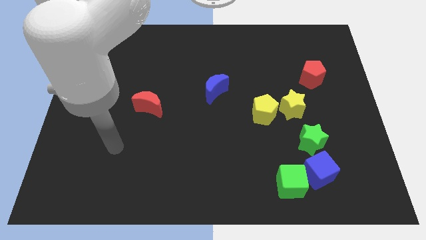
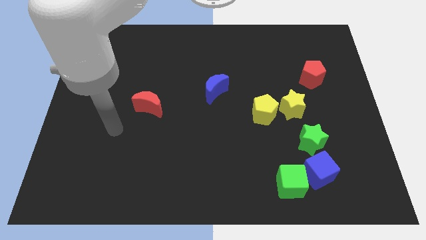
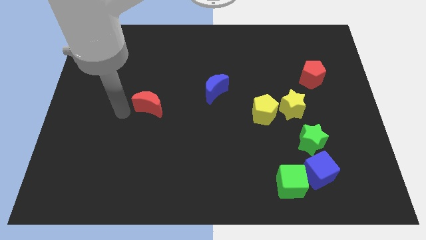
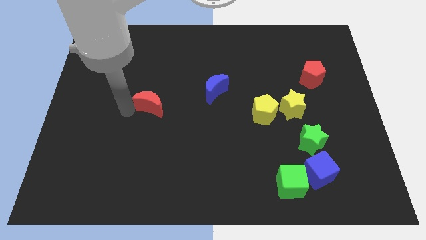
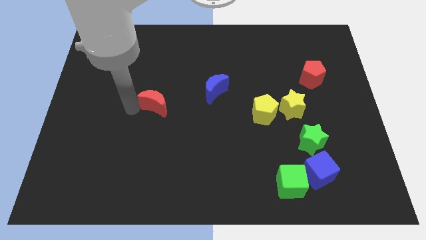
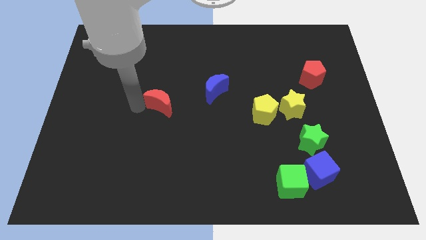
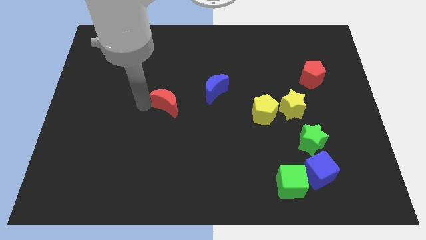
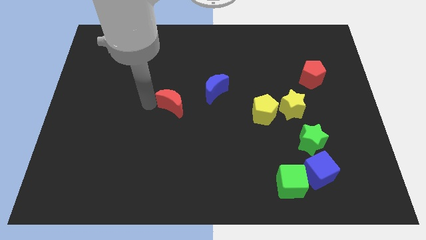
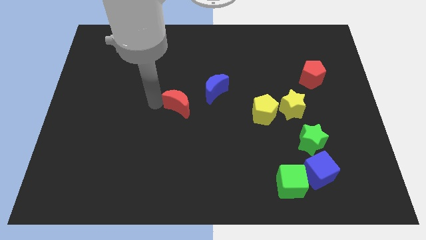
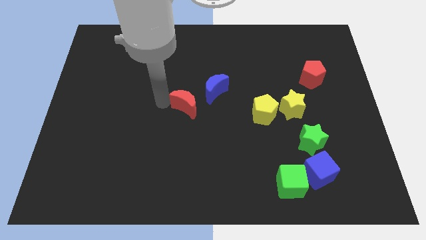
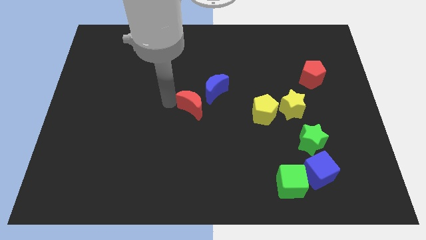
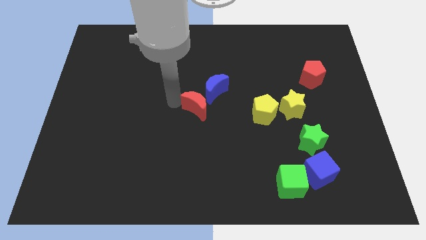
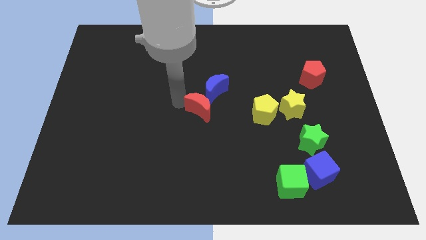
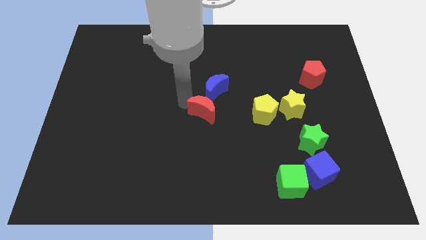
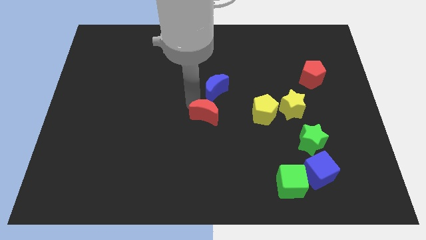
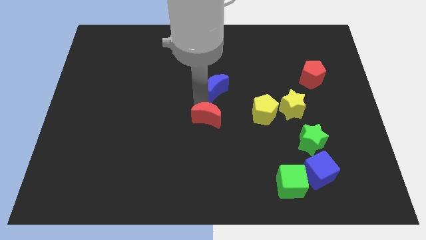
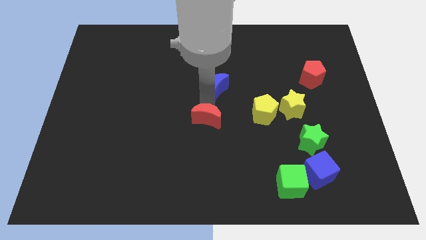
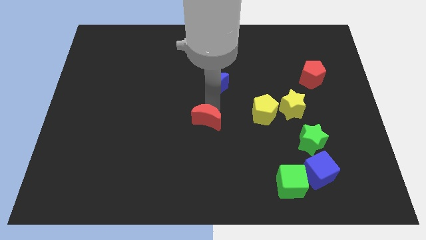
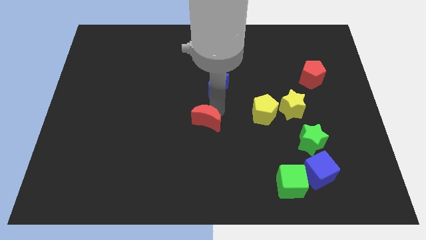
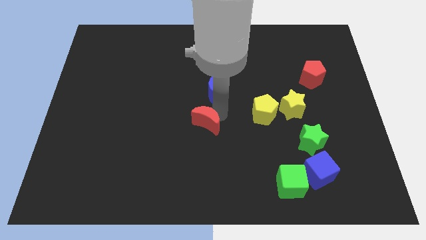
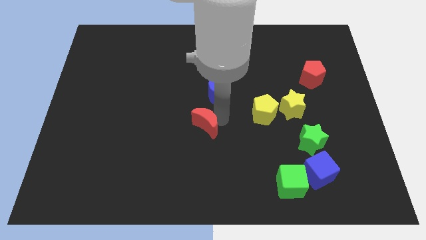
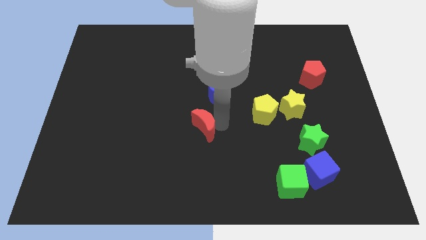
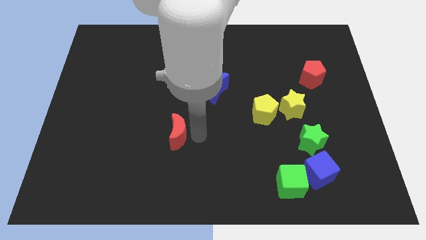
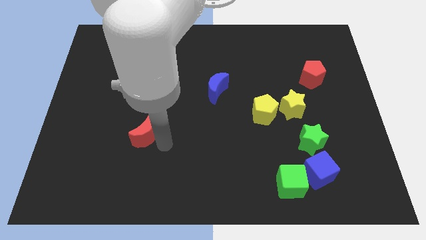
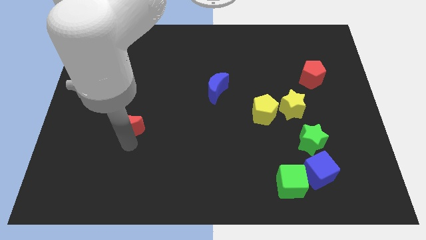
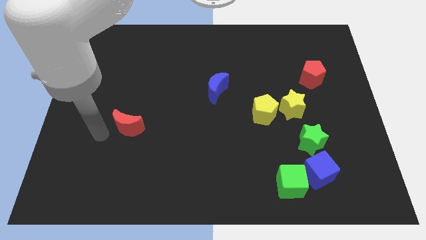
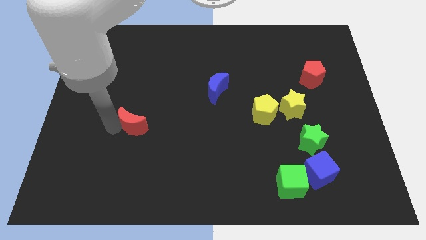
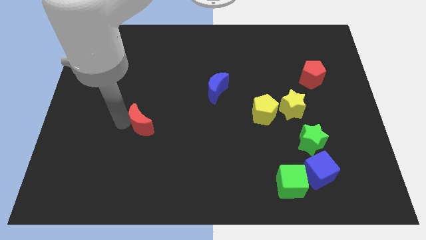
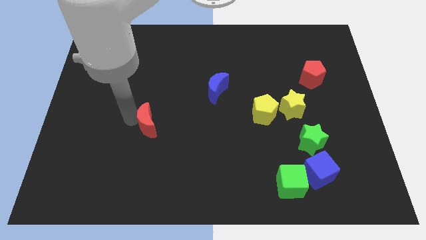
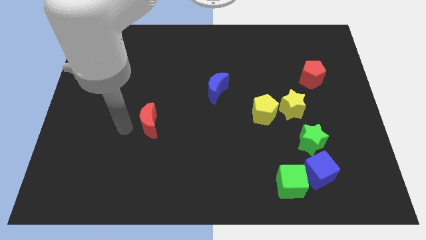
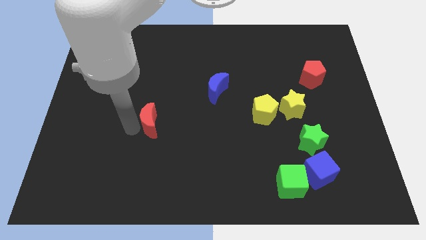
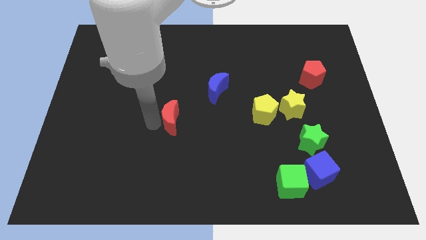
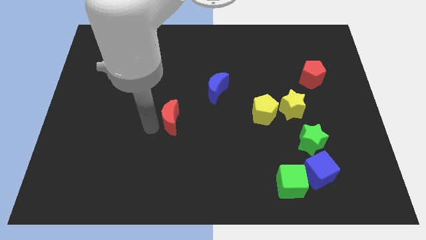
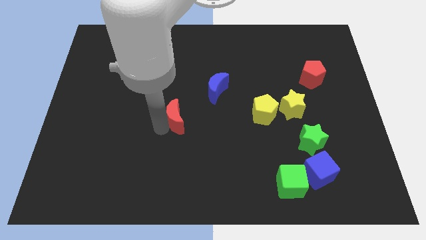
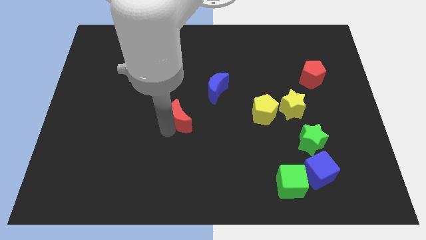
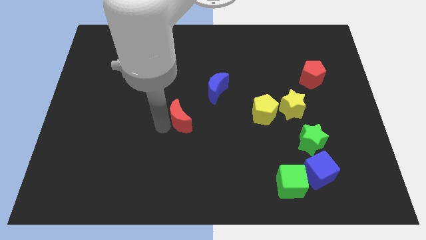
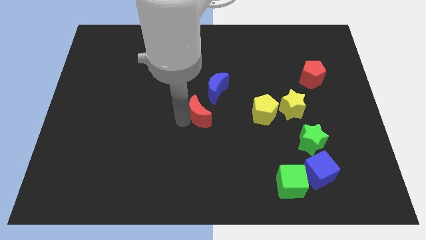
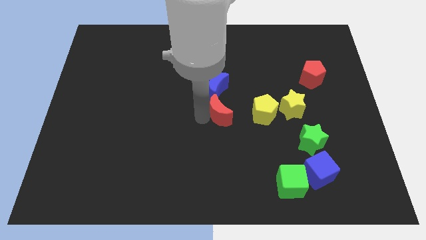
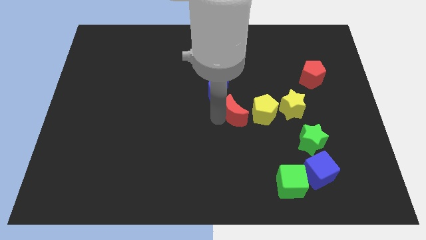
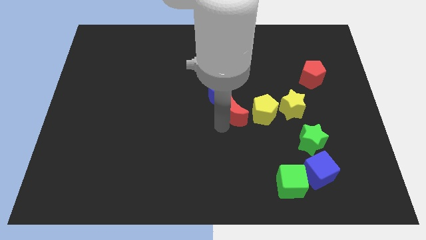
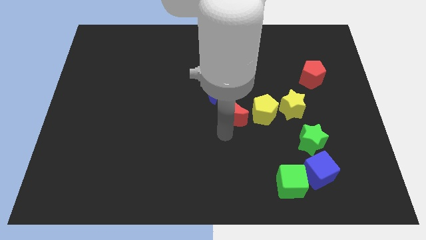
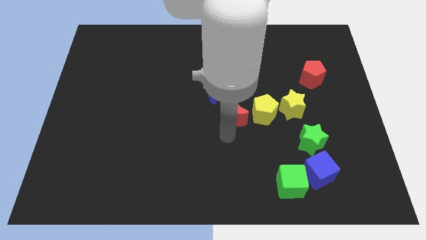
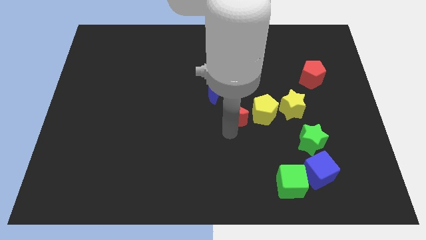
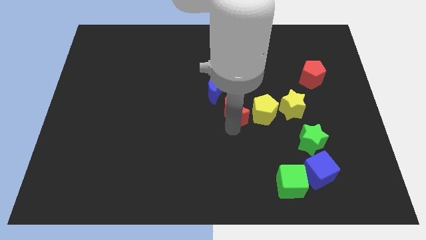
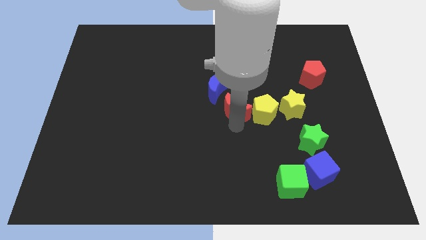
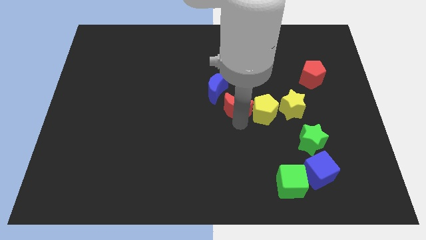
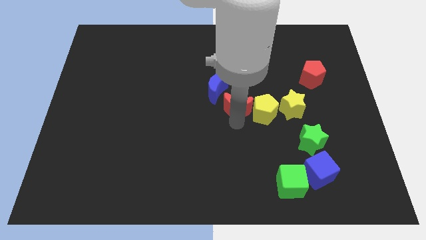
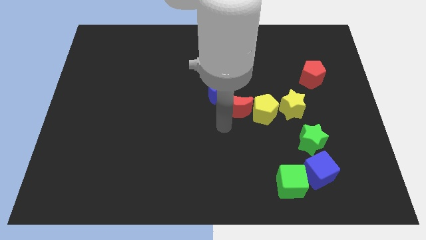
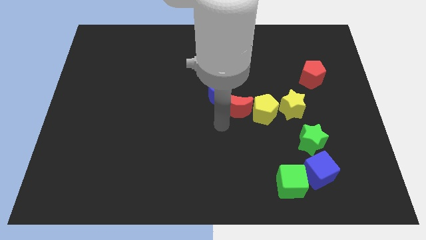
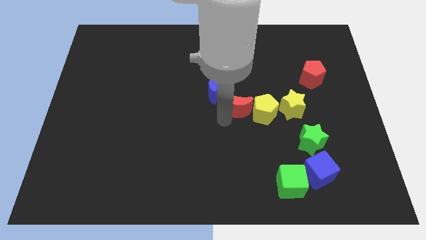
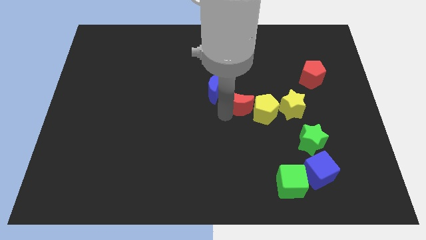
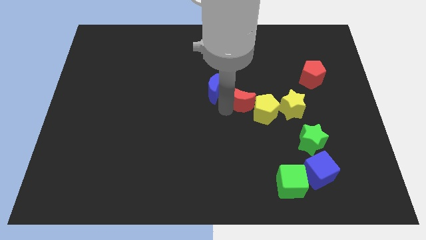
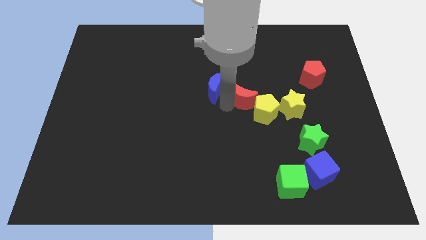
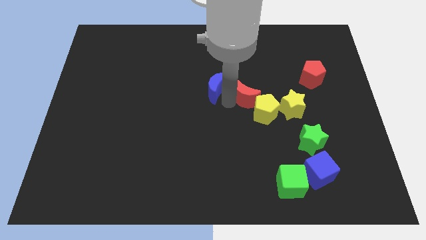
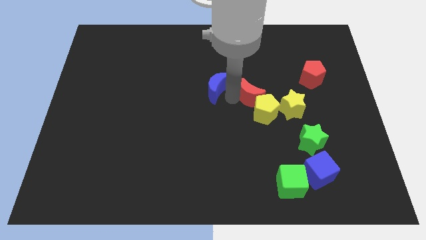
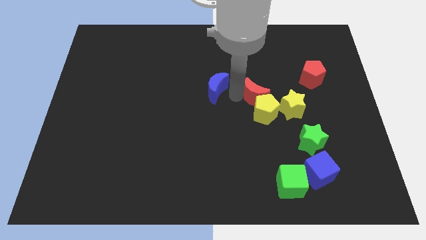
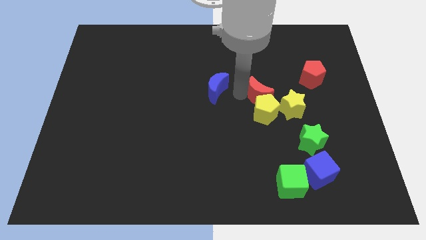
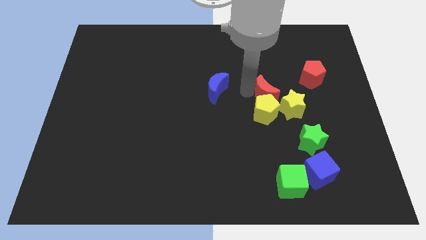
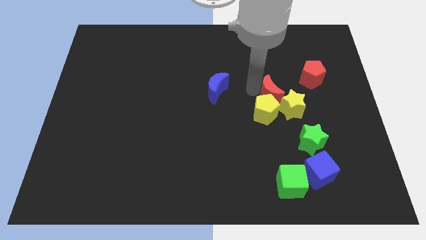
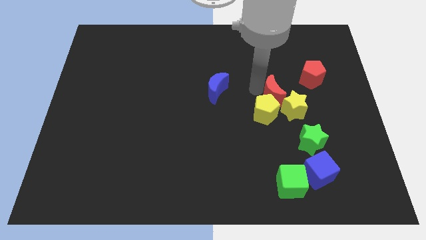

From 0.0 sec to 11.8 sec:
push the red moon to the bottom left side of the red pentagon

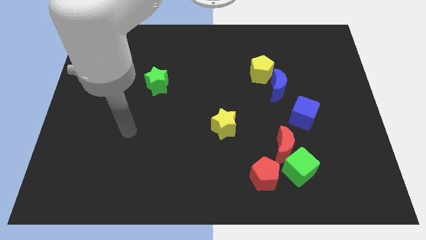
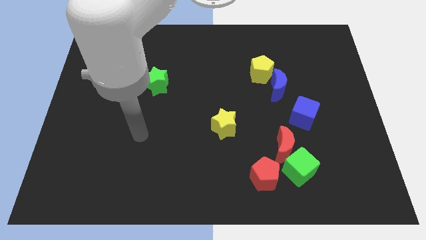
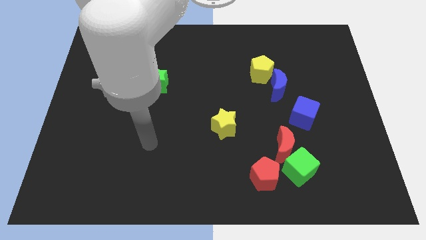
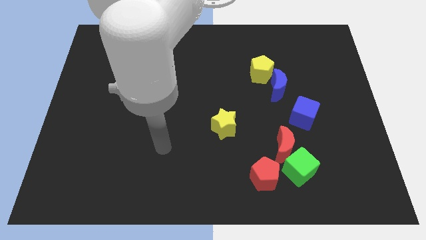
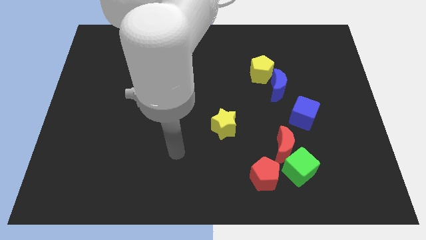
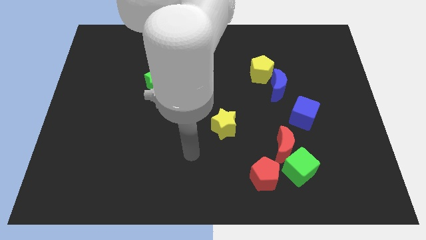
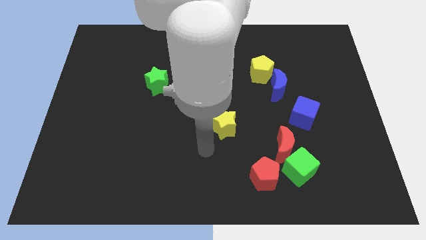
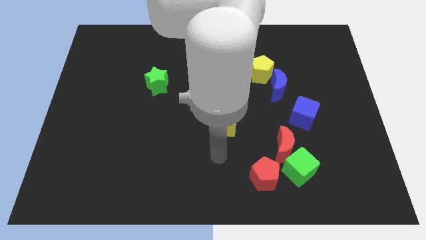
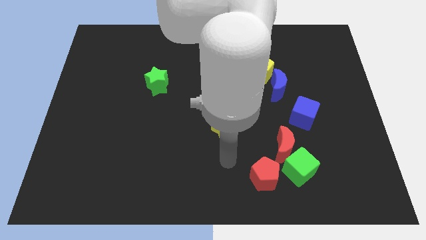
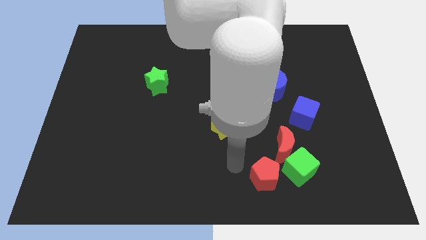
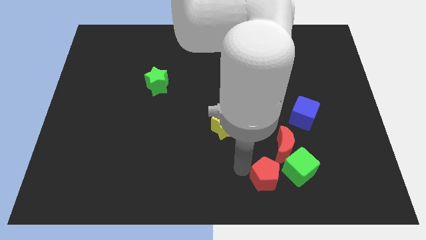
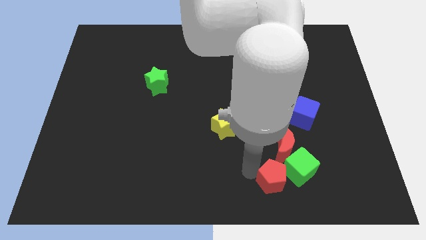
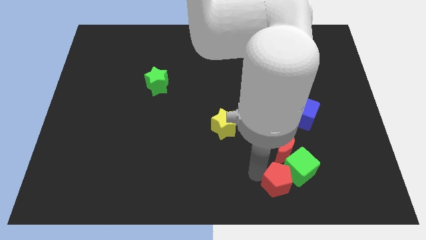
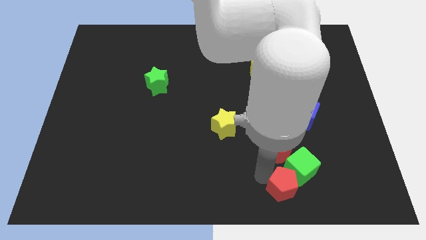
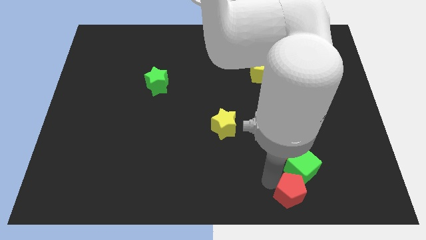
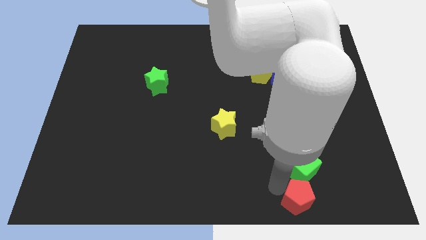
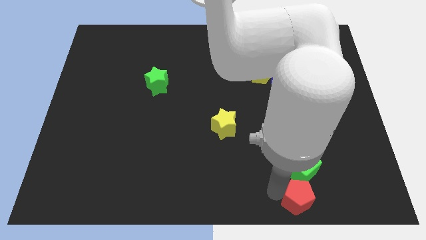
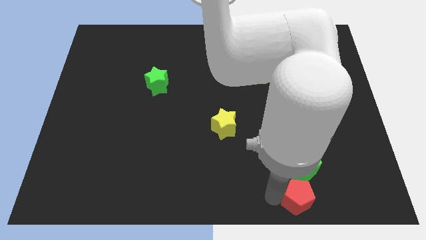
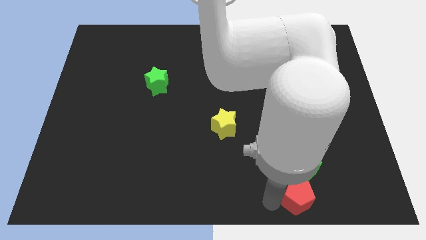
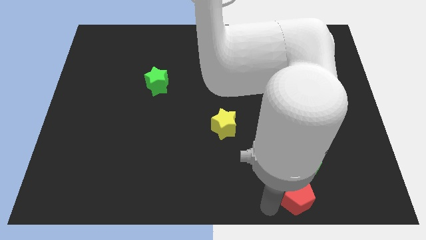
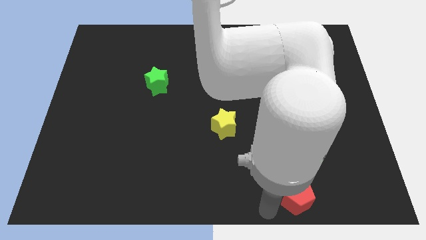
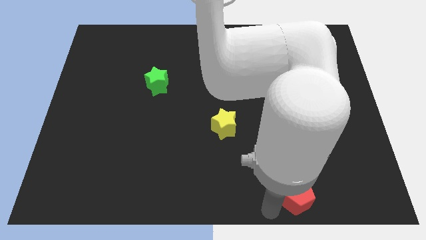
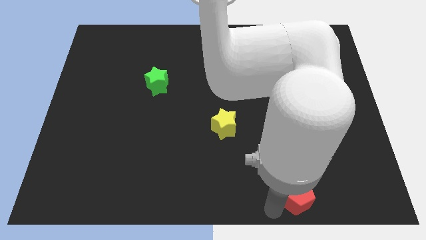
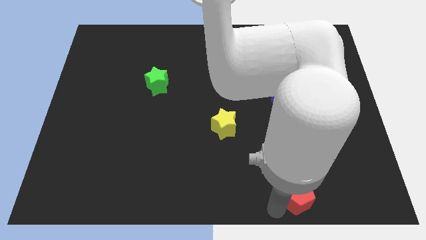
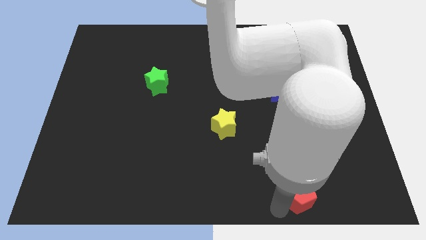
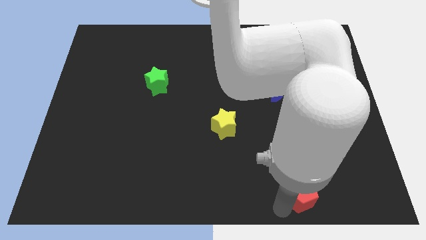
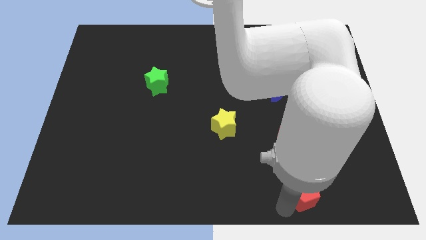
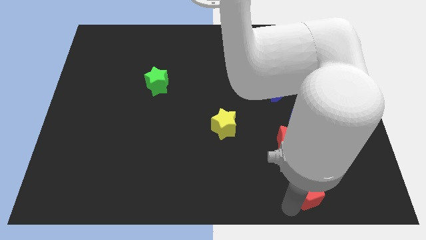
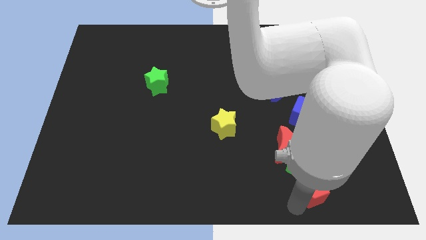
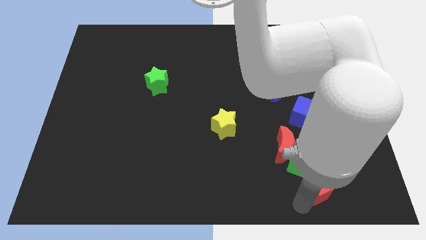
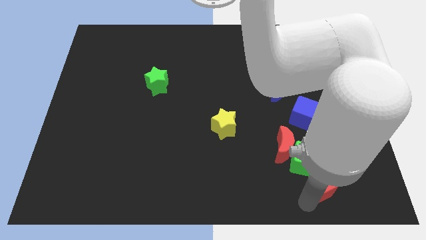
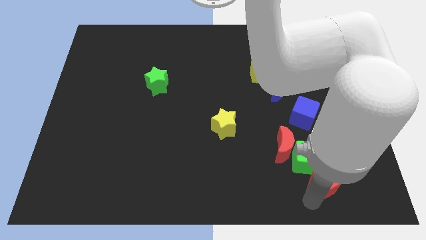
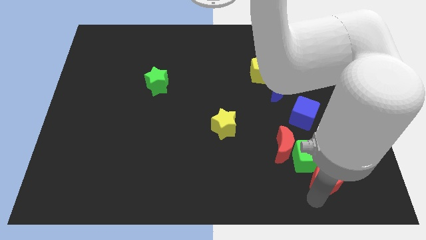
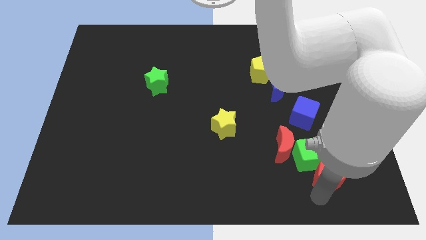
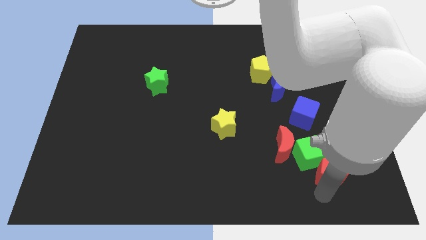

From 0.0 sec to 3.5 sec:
slide the red pentagon right of the green cube
